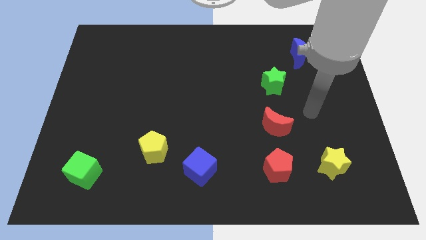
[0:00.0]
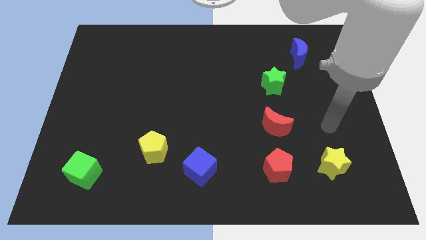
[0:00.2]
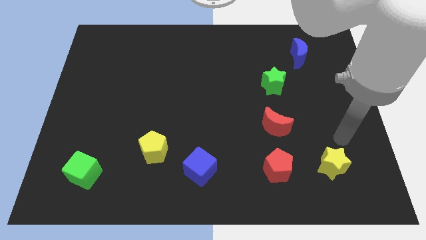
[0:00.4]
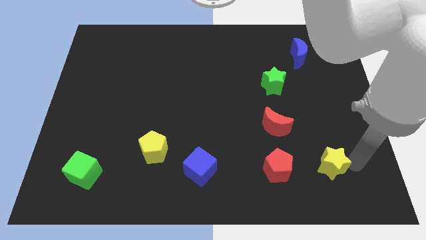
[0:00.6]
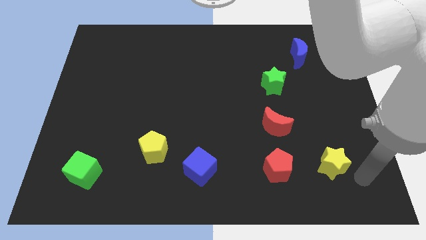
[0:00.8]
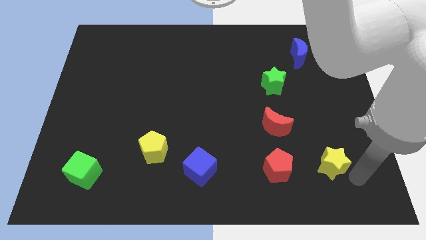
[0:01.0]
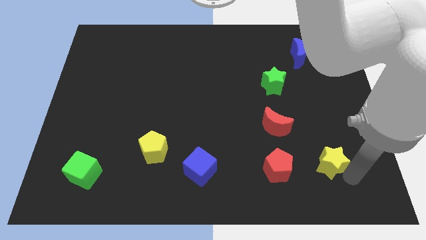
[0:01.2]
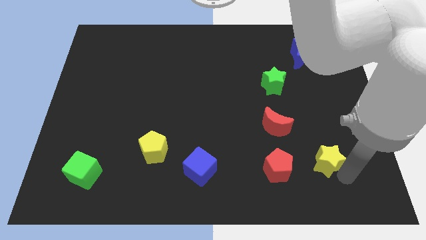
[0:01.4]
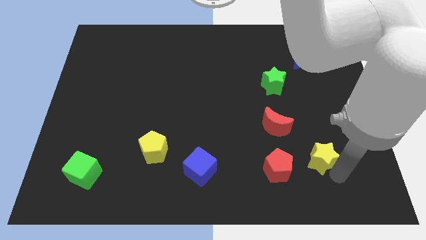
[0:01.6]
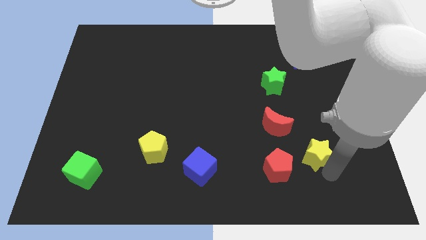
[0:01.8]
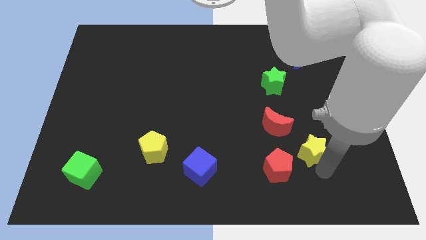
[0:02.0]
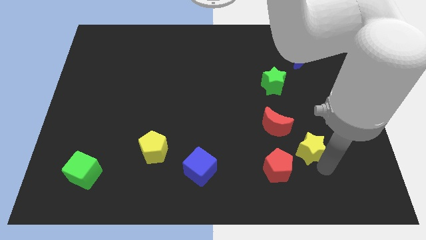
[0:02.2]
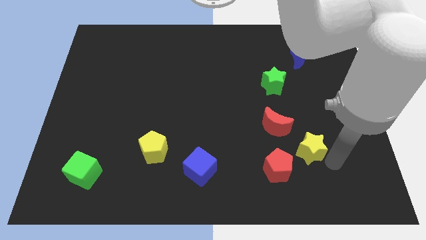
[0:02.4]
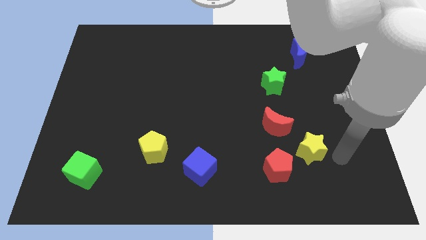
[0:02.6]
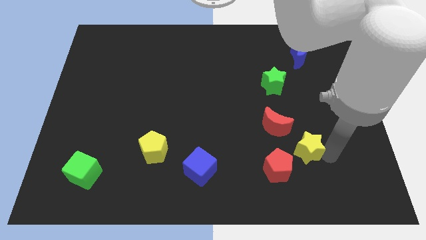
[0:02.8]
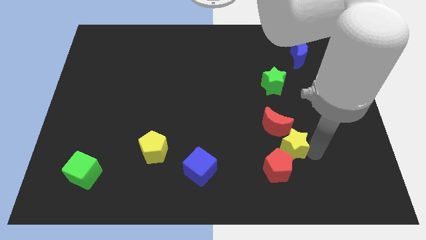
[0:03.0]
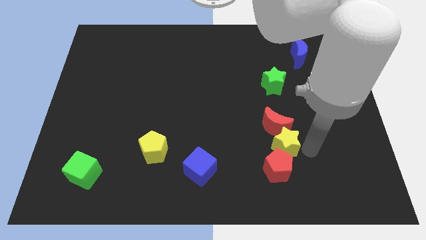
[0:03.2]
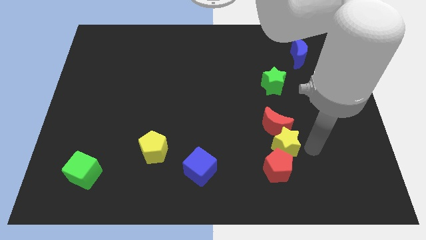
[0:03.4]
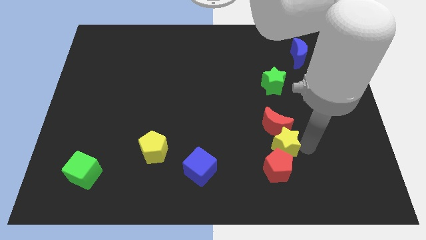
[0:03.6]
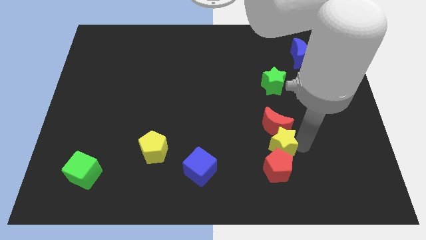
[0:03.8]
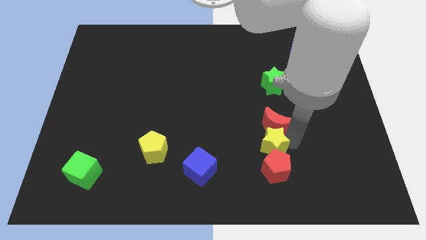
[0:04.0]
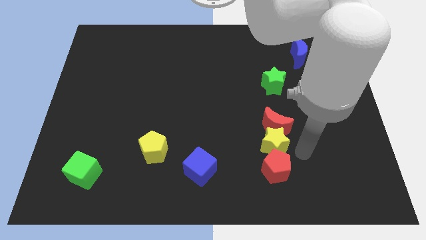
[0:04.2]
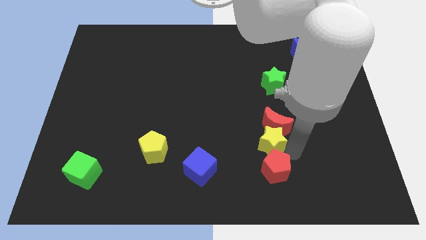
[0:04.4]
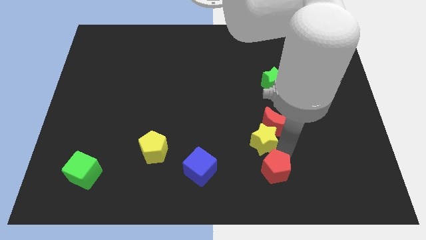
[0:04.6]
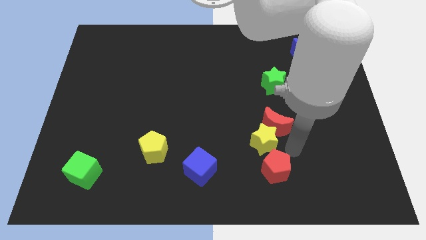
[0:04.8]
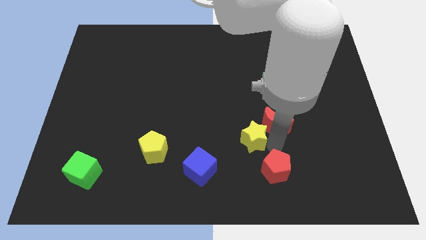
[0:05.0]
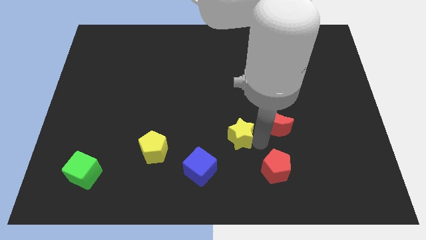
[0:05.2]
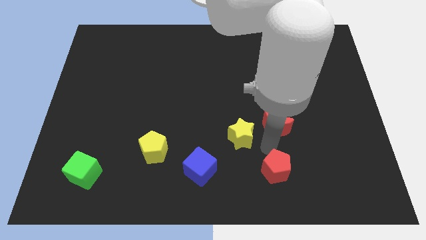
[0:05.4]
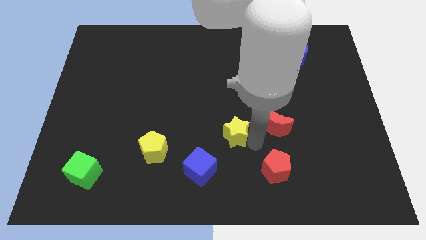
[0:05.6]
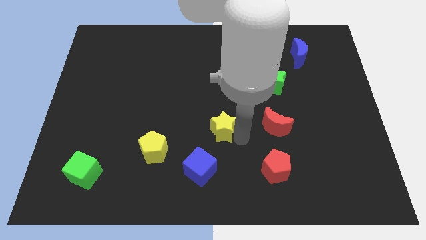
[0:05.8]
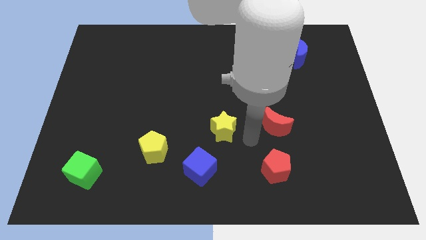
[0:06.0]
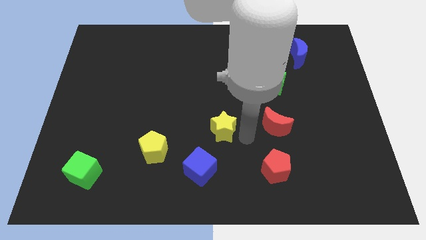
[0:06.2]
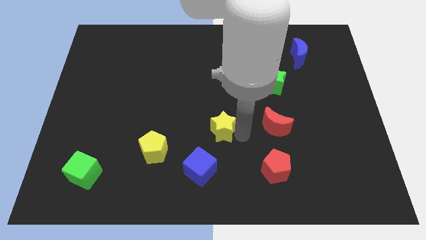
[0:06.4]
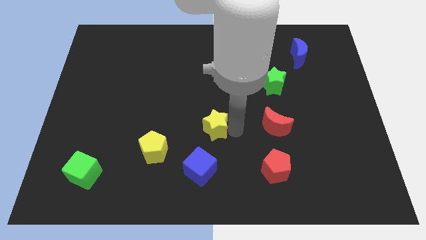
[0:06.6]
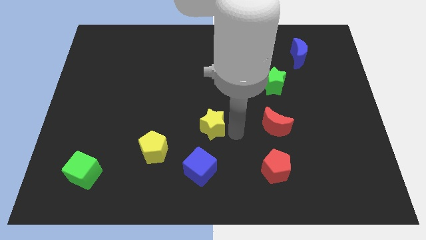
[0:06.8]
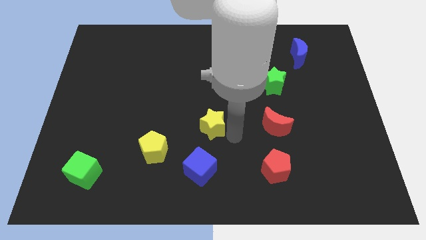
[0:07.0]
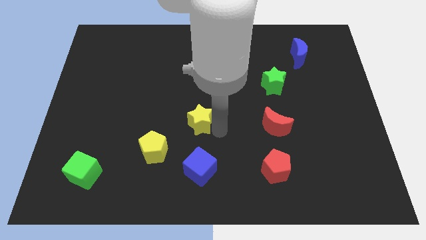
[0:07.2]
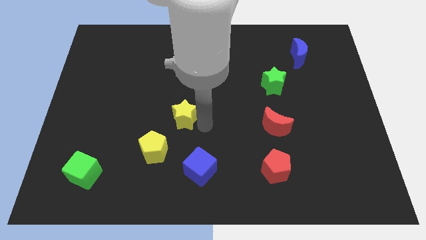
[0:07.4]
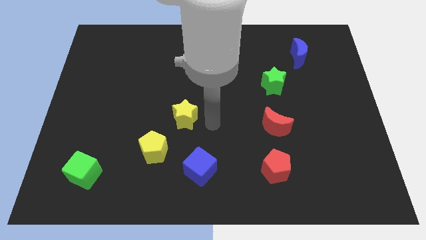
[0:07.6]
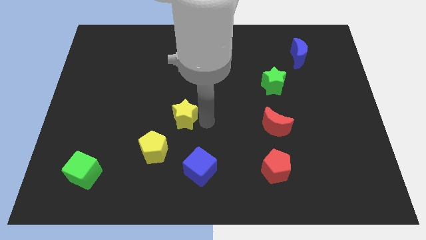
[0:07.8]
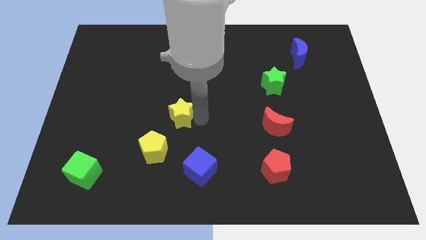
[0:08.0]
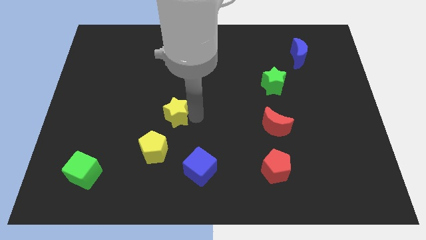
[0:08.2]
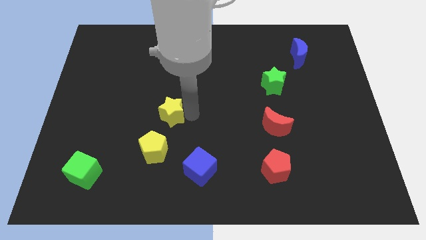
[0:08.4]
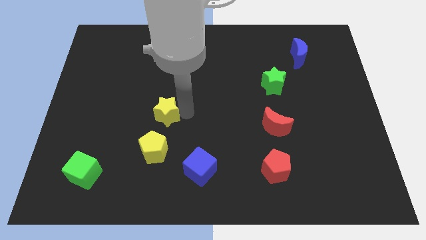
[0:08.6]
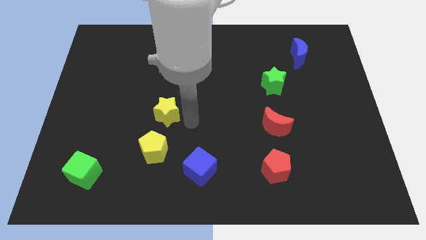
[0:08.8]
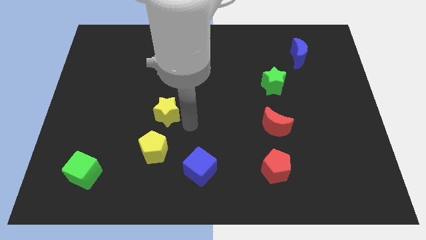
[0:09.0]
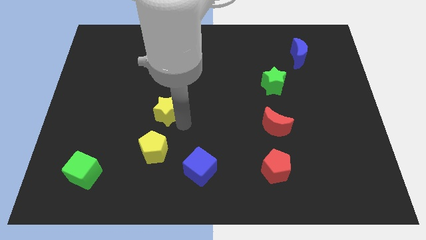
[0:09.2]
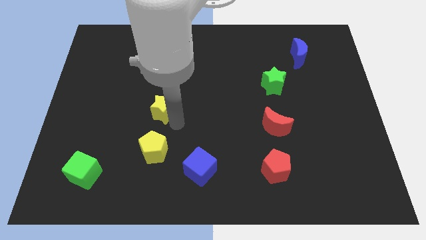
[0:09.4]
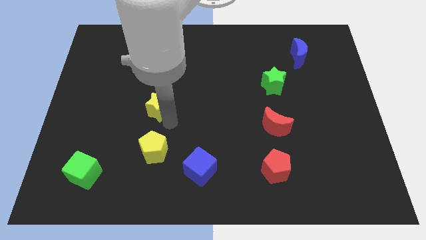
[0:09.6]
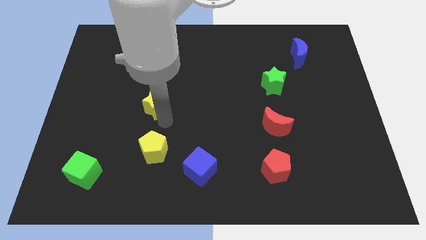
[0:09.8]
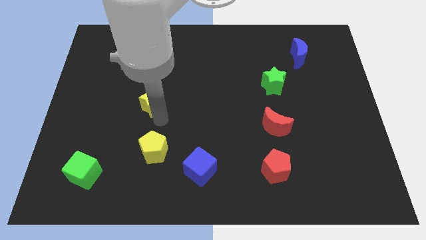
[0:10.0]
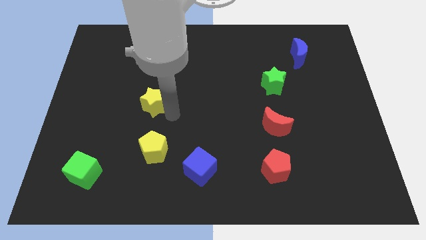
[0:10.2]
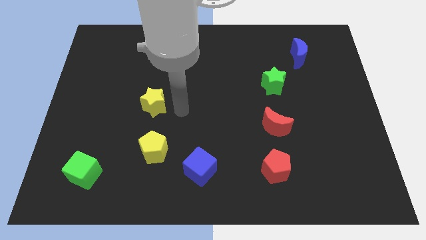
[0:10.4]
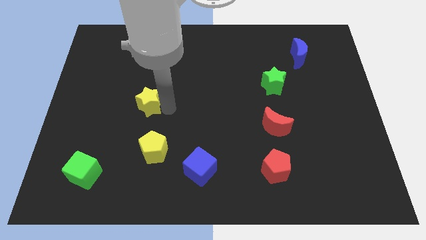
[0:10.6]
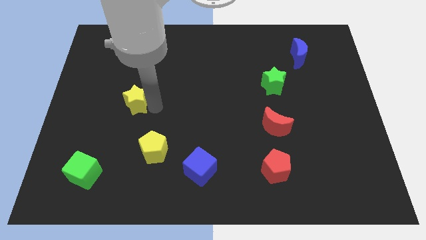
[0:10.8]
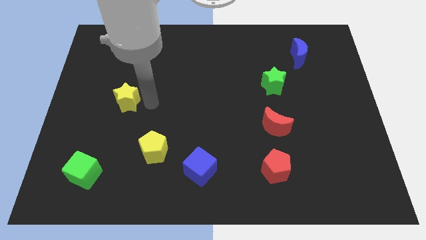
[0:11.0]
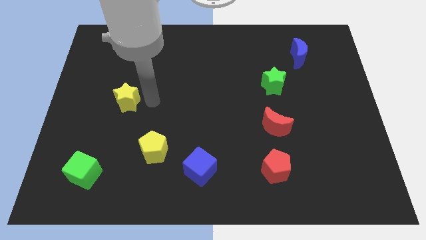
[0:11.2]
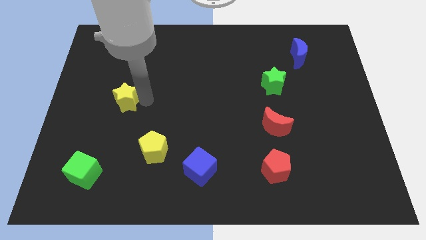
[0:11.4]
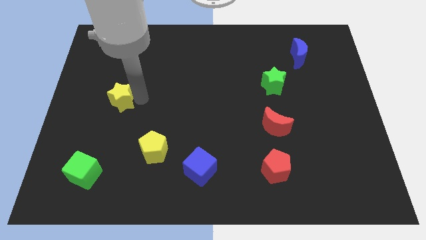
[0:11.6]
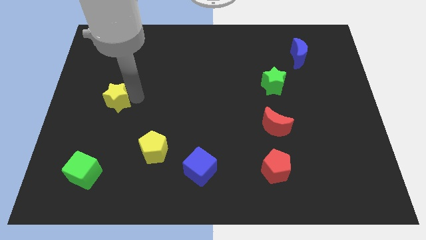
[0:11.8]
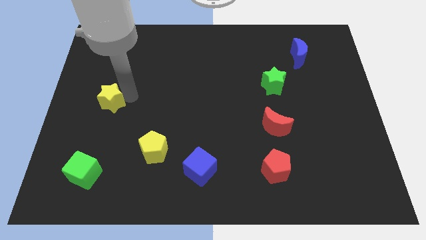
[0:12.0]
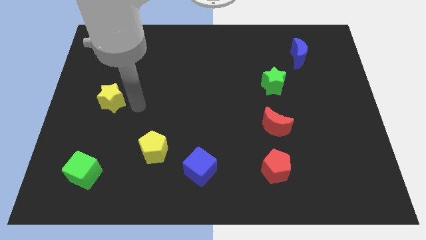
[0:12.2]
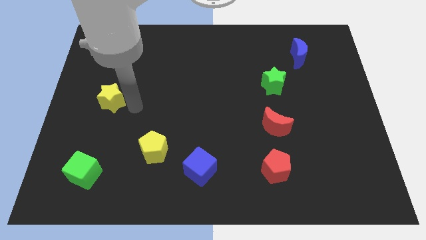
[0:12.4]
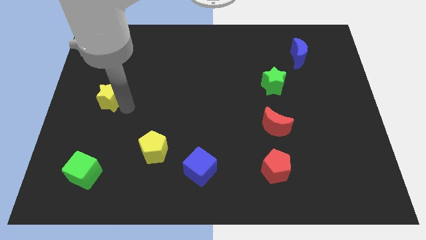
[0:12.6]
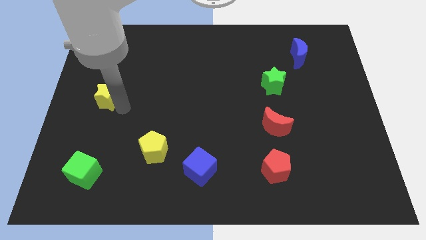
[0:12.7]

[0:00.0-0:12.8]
push the yellow star to the center left

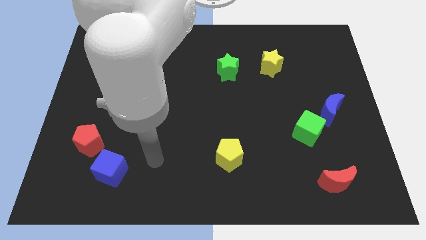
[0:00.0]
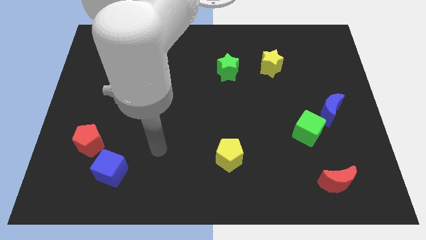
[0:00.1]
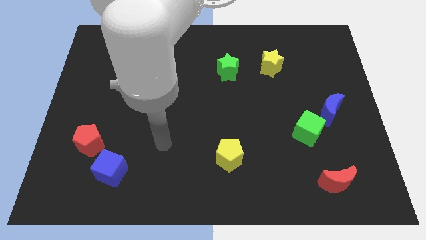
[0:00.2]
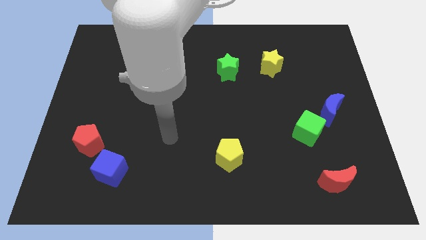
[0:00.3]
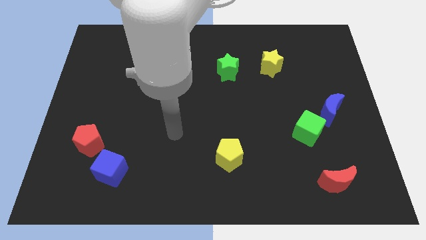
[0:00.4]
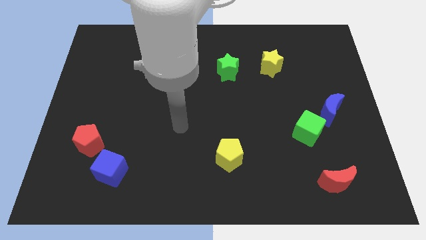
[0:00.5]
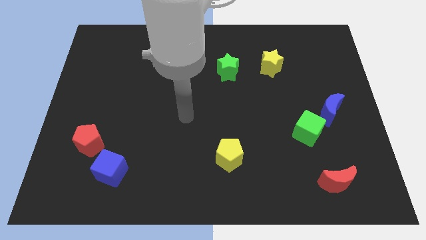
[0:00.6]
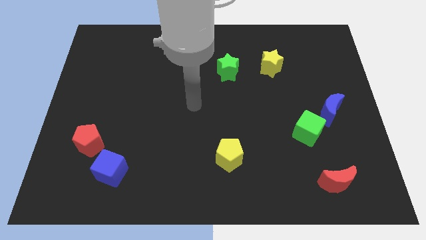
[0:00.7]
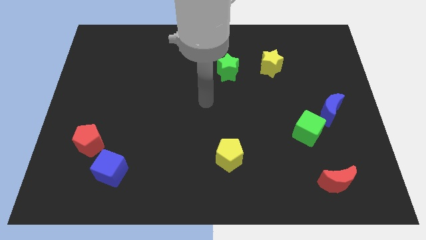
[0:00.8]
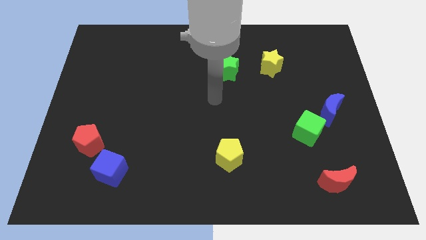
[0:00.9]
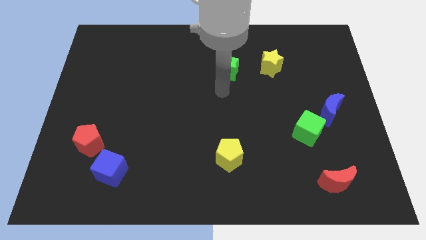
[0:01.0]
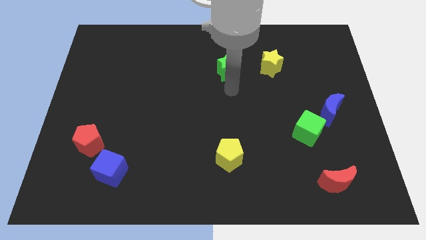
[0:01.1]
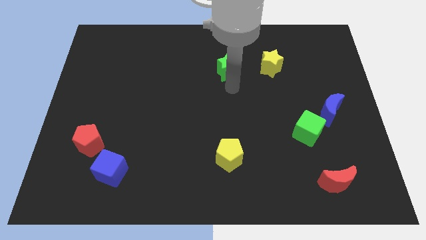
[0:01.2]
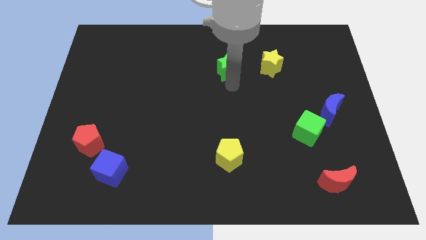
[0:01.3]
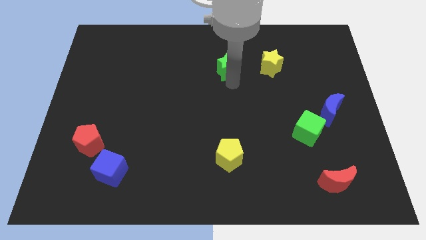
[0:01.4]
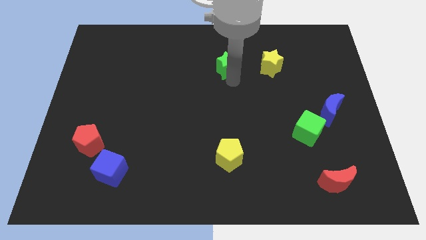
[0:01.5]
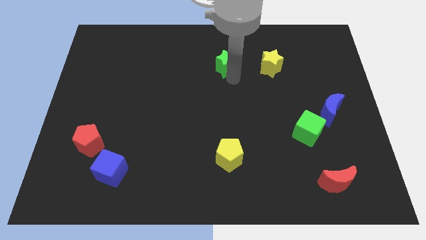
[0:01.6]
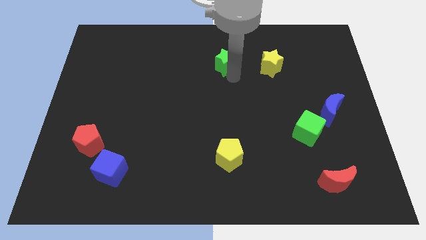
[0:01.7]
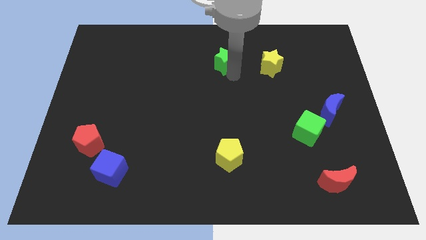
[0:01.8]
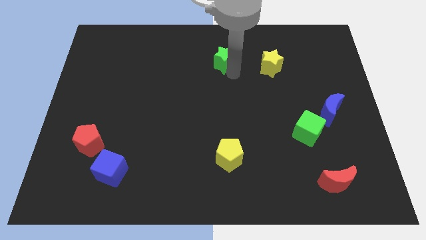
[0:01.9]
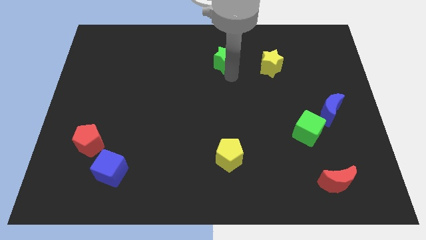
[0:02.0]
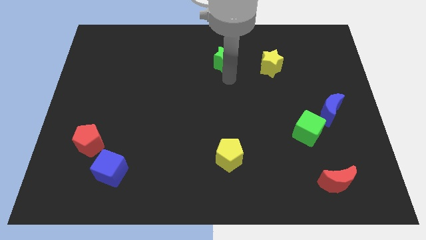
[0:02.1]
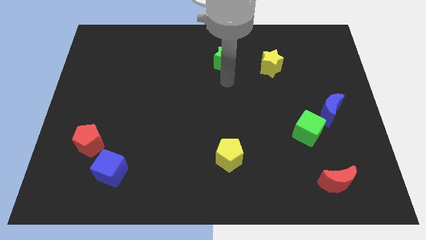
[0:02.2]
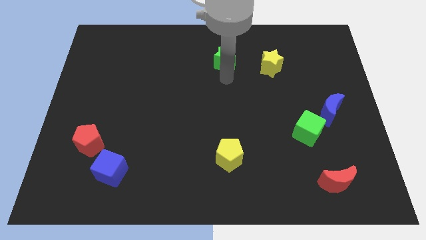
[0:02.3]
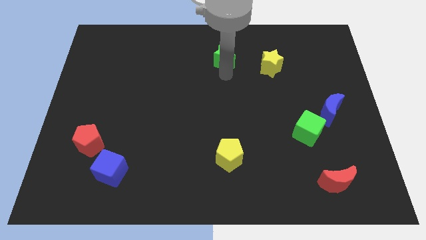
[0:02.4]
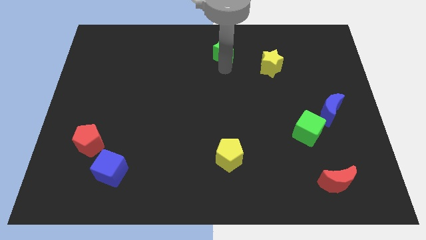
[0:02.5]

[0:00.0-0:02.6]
push the green star to the towards your base
